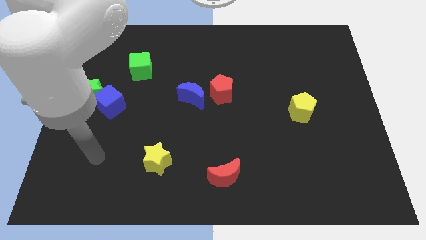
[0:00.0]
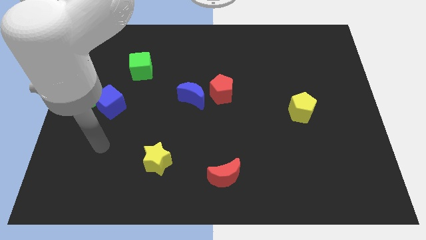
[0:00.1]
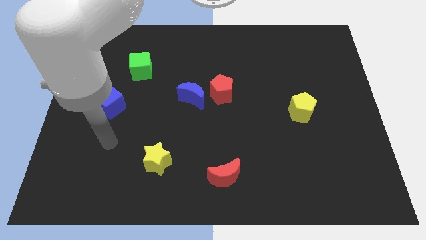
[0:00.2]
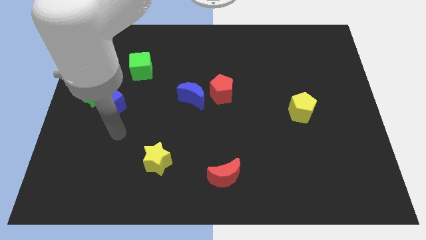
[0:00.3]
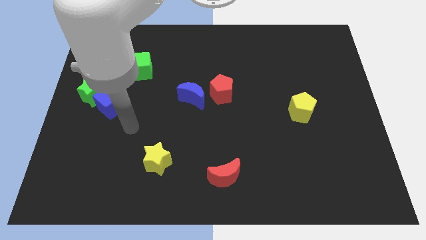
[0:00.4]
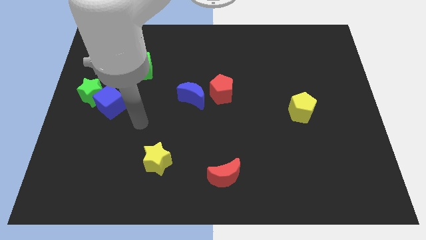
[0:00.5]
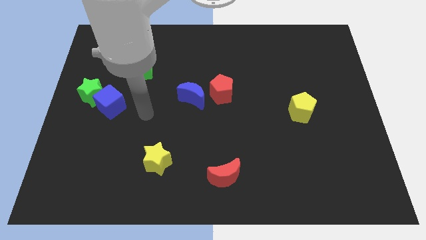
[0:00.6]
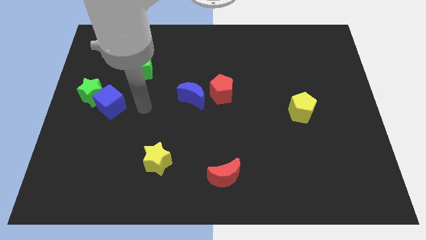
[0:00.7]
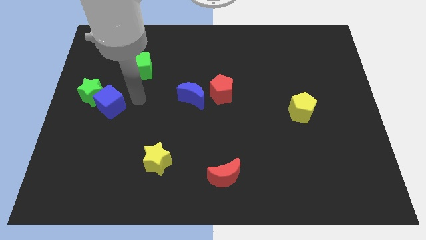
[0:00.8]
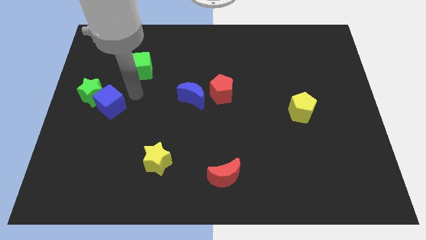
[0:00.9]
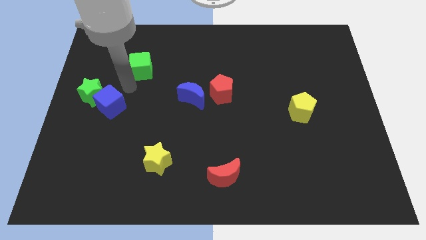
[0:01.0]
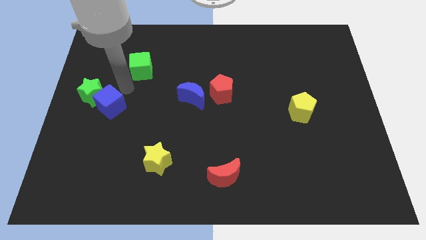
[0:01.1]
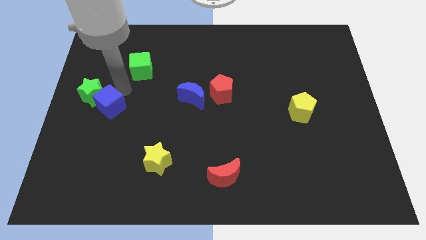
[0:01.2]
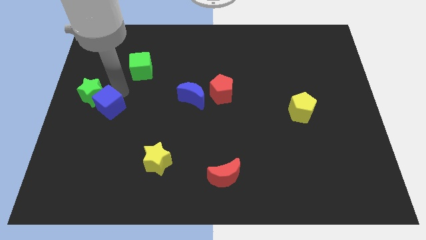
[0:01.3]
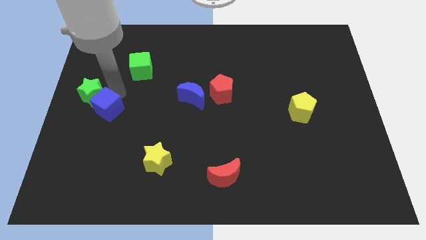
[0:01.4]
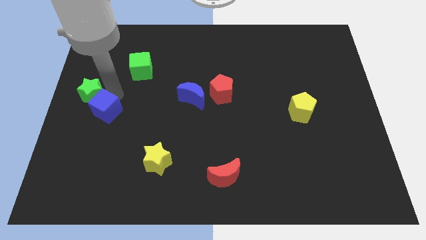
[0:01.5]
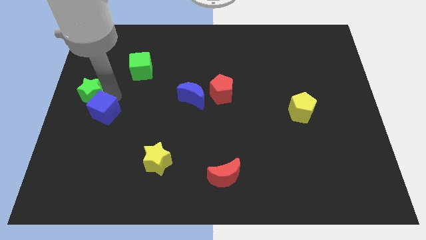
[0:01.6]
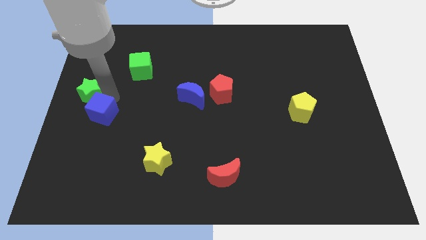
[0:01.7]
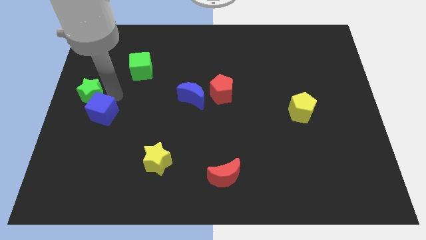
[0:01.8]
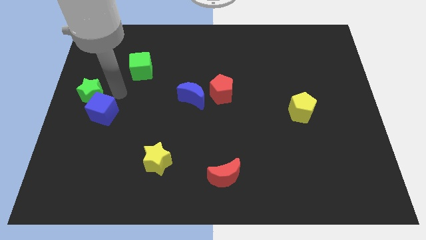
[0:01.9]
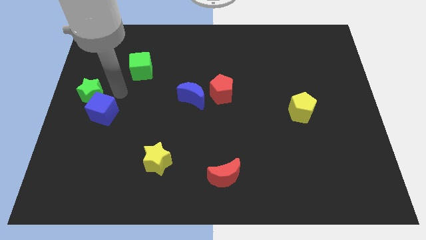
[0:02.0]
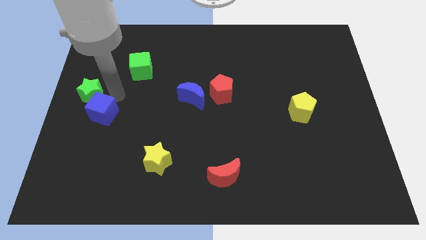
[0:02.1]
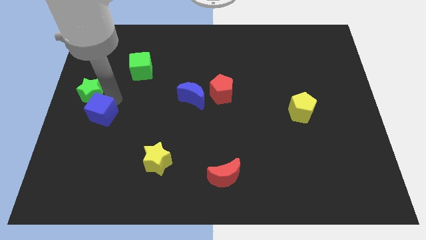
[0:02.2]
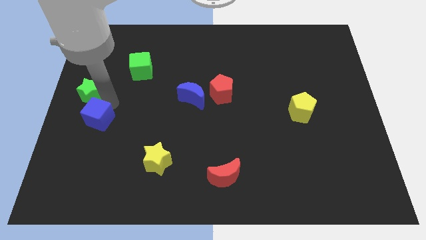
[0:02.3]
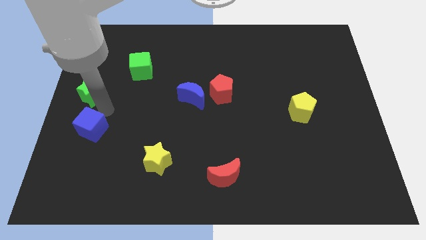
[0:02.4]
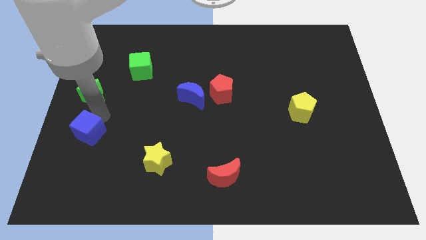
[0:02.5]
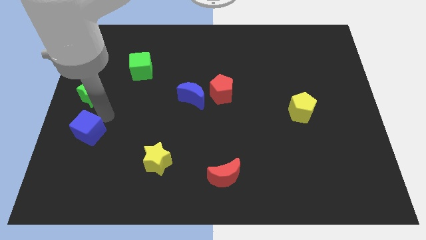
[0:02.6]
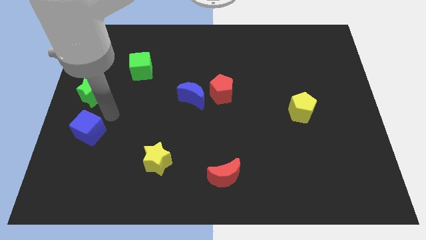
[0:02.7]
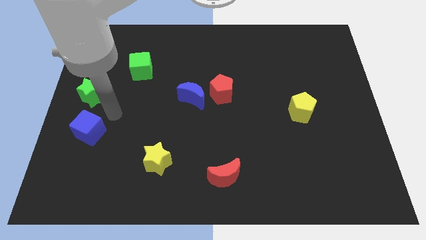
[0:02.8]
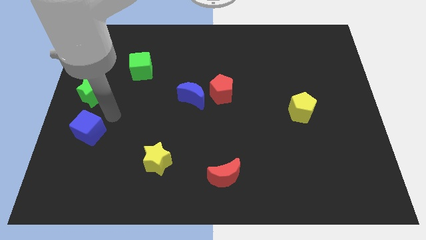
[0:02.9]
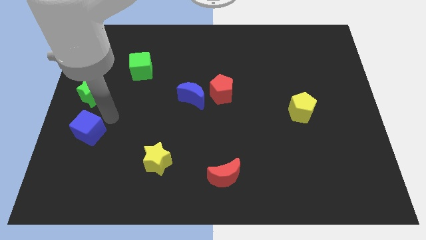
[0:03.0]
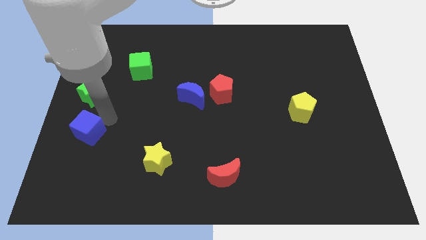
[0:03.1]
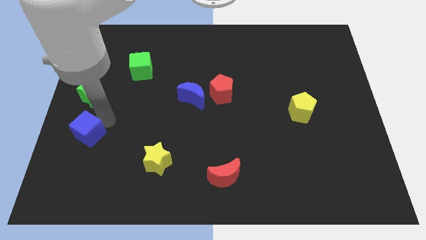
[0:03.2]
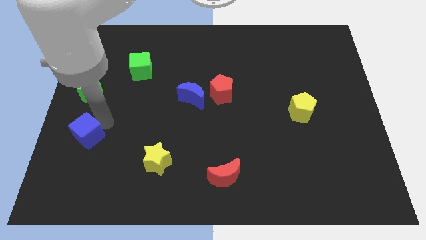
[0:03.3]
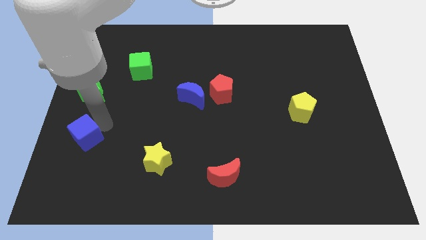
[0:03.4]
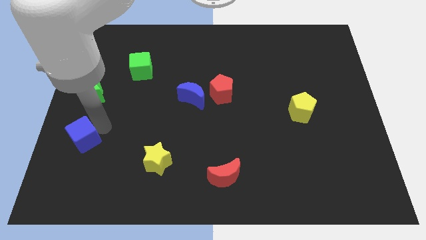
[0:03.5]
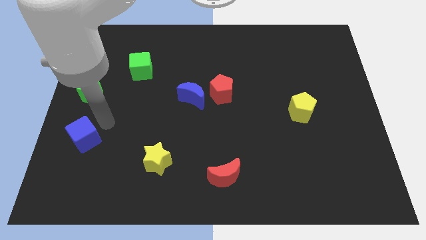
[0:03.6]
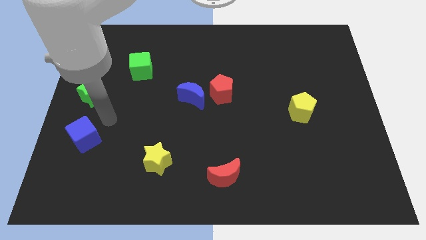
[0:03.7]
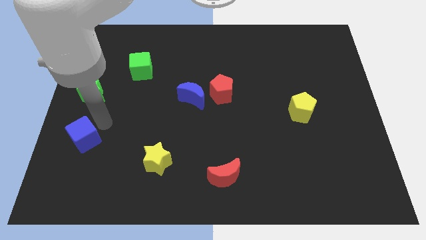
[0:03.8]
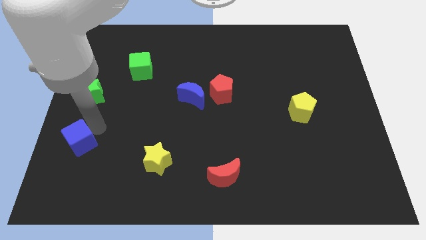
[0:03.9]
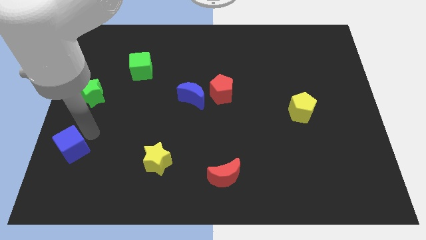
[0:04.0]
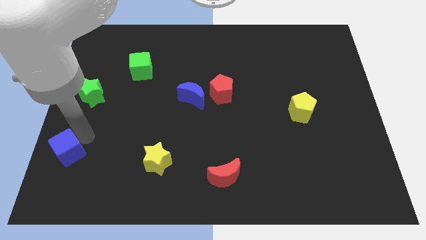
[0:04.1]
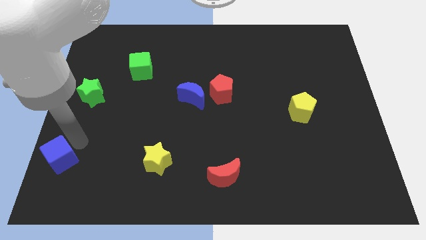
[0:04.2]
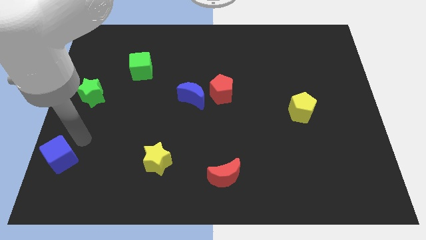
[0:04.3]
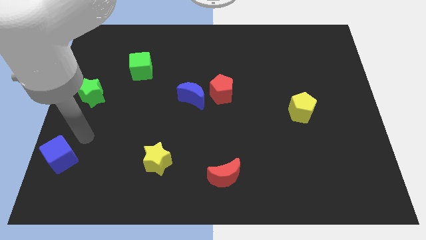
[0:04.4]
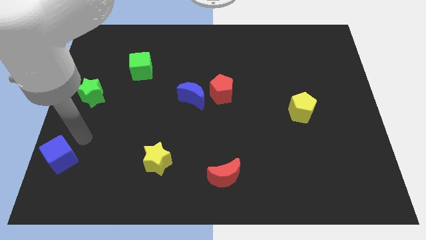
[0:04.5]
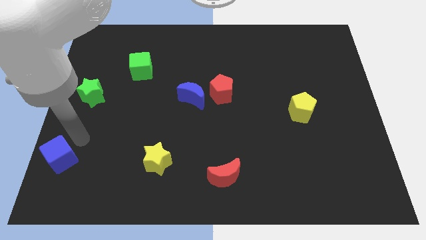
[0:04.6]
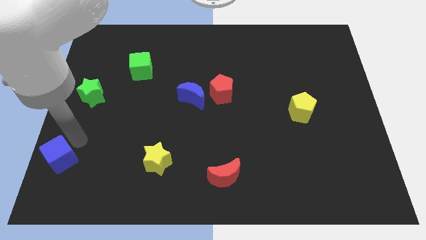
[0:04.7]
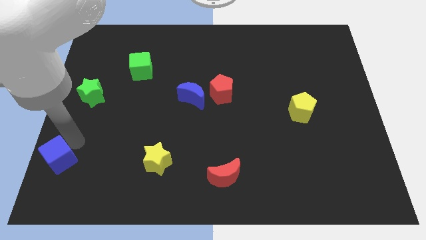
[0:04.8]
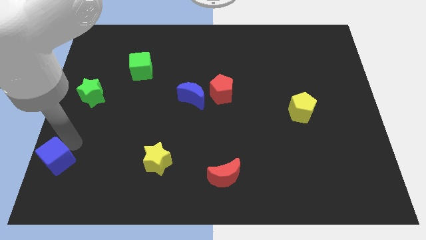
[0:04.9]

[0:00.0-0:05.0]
put the blue cube to the lower left corner

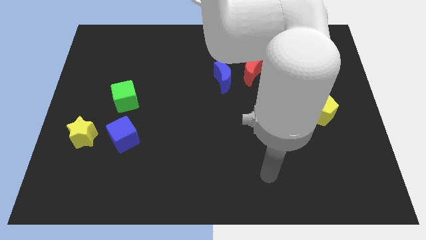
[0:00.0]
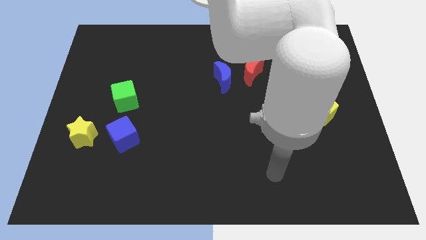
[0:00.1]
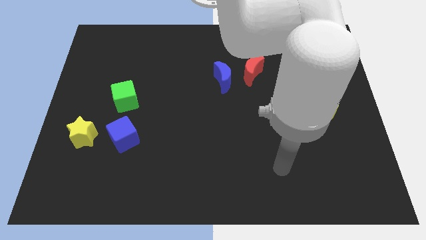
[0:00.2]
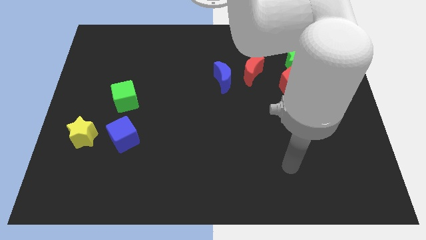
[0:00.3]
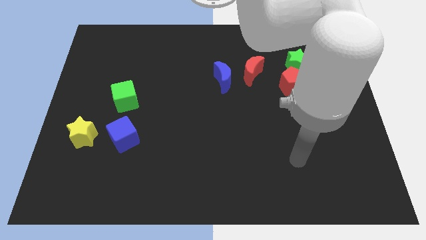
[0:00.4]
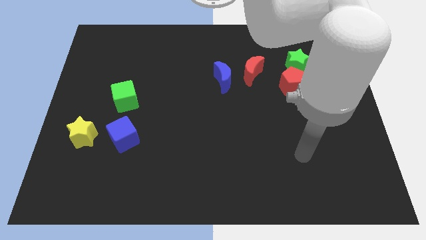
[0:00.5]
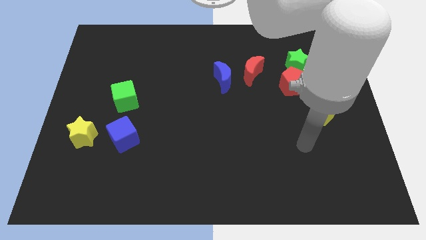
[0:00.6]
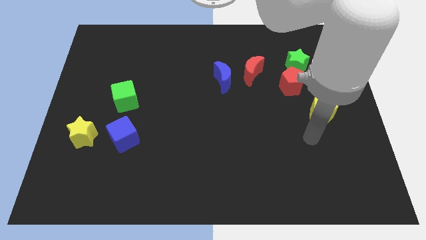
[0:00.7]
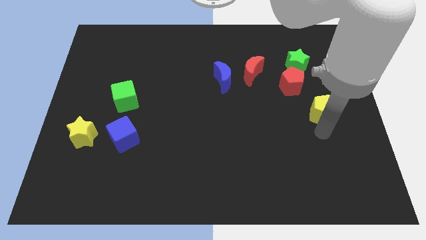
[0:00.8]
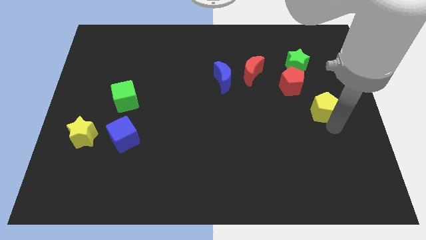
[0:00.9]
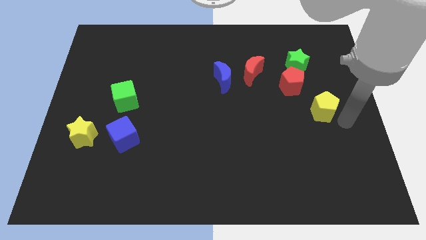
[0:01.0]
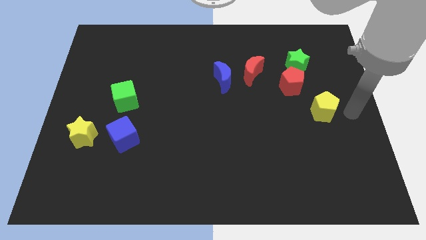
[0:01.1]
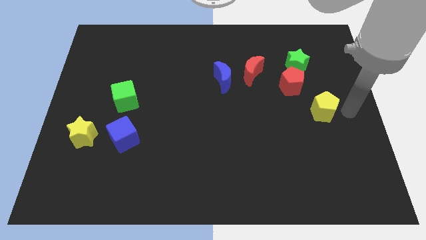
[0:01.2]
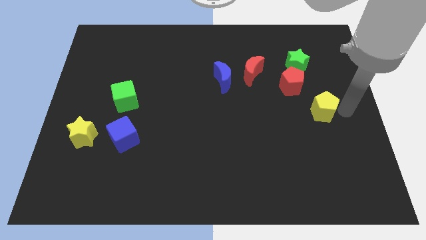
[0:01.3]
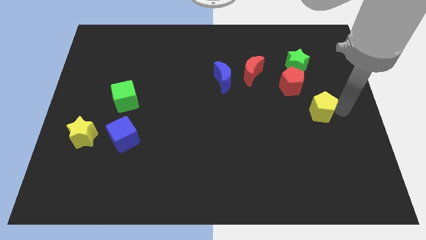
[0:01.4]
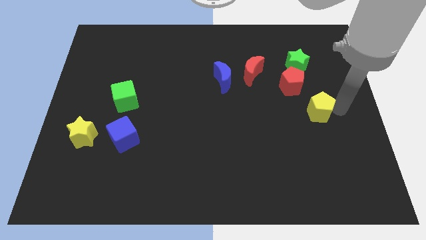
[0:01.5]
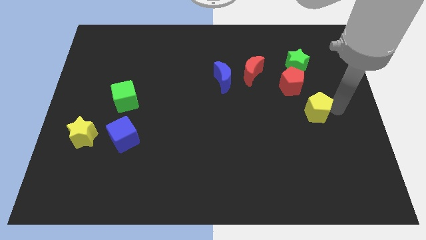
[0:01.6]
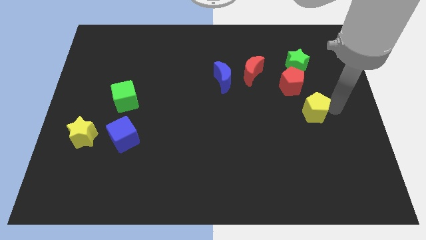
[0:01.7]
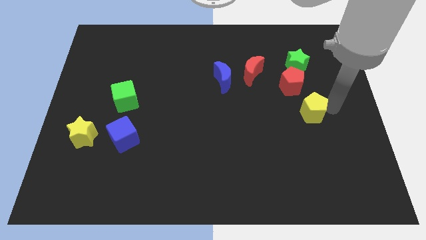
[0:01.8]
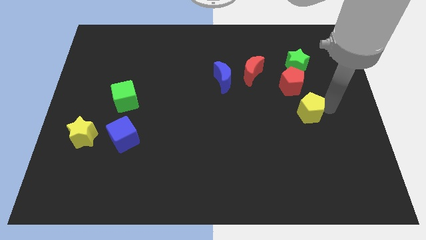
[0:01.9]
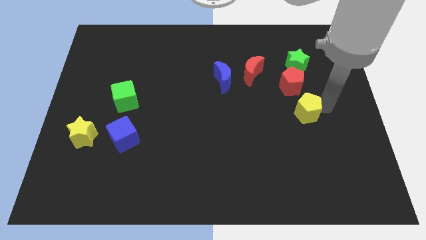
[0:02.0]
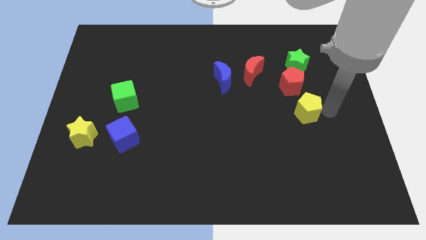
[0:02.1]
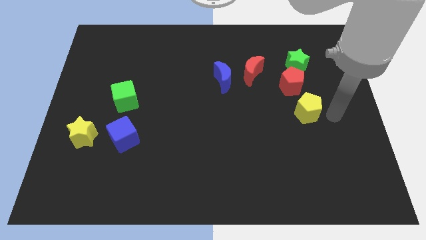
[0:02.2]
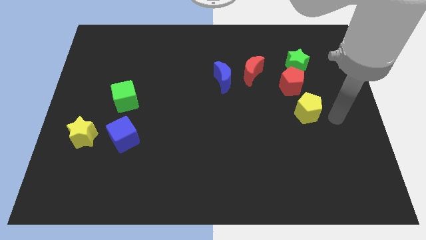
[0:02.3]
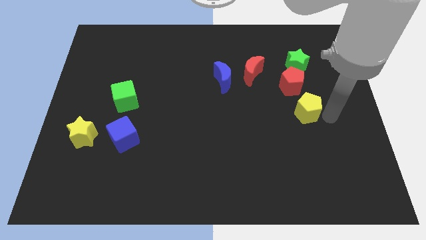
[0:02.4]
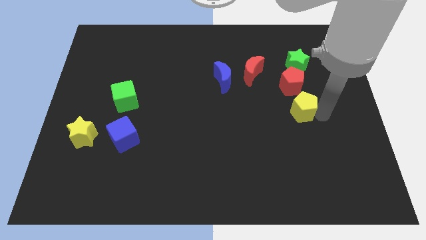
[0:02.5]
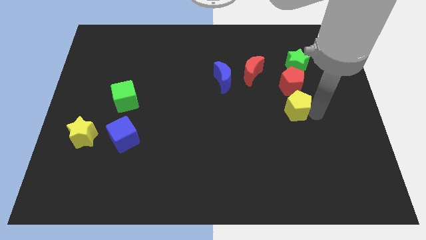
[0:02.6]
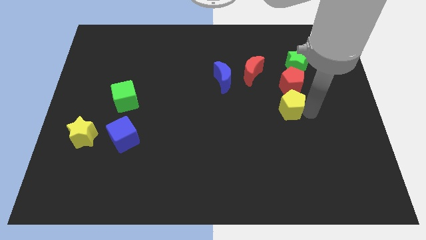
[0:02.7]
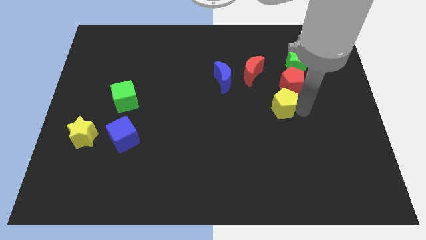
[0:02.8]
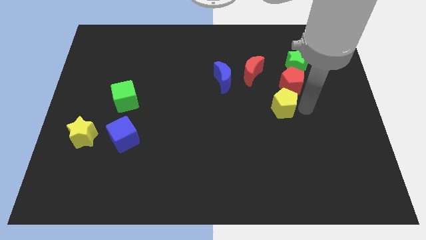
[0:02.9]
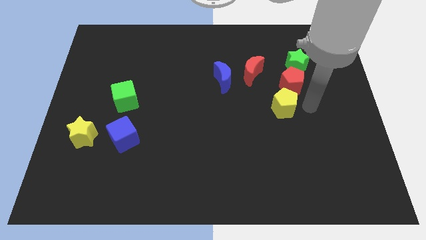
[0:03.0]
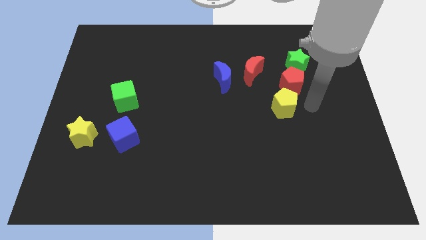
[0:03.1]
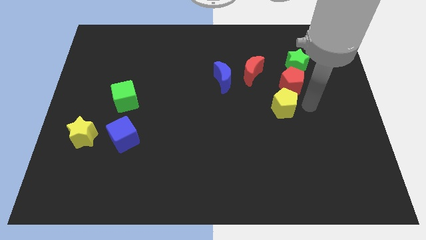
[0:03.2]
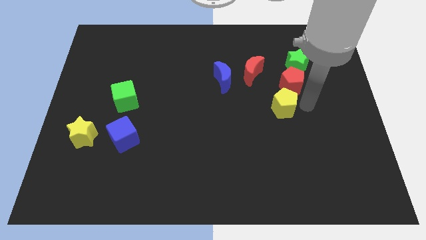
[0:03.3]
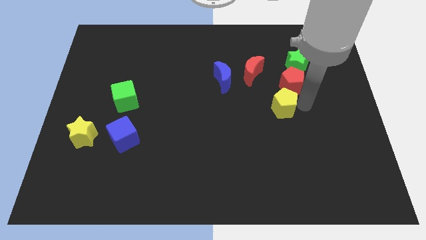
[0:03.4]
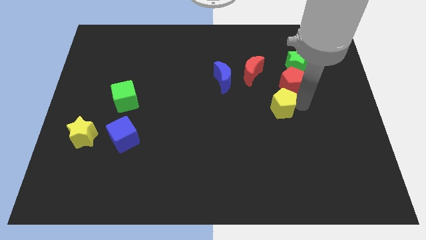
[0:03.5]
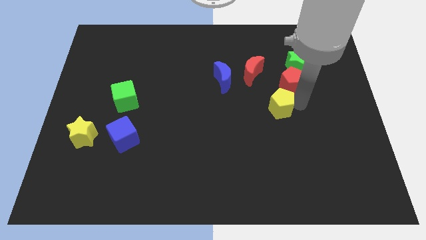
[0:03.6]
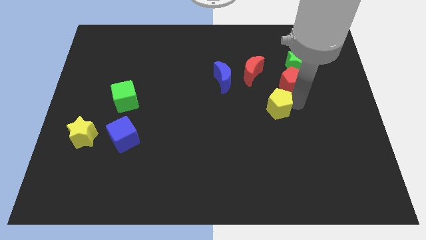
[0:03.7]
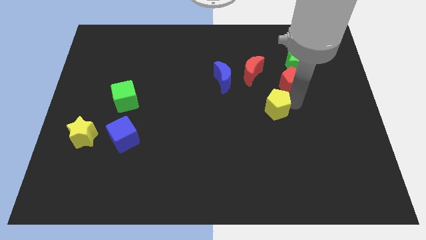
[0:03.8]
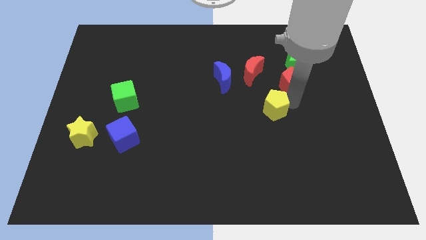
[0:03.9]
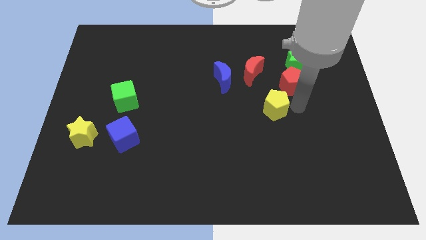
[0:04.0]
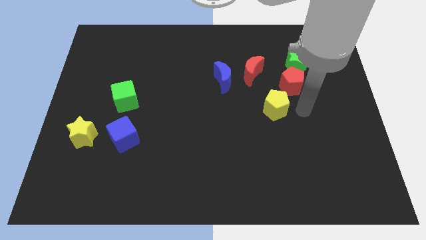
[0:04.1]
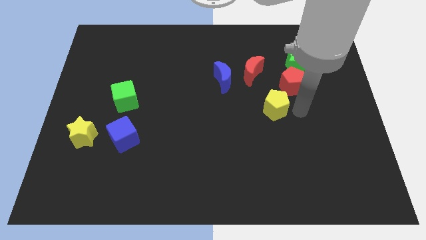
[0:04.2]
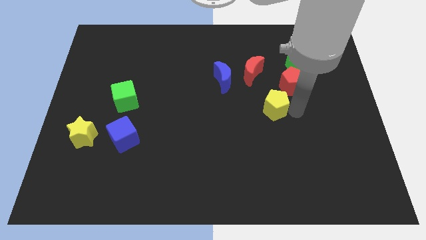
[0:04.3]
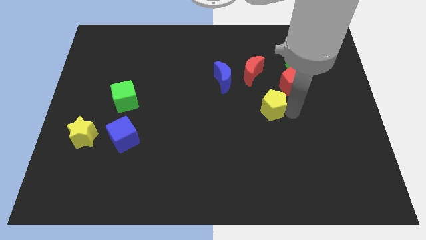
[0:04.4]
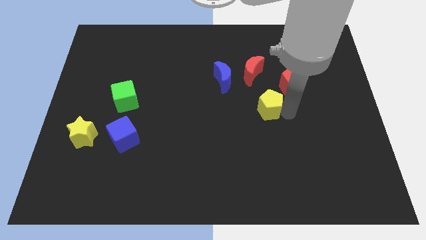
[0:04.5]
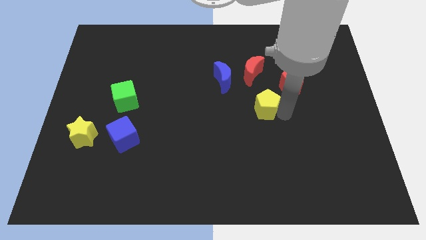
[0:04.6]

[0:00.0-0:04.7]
slide the yellow pentagon to the center of the board
